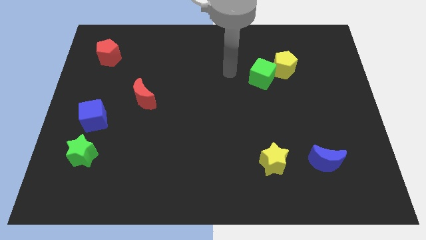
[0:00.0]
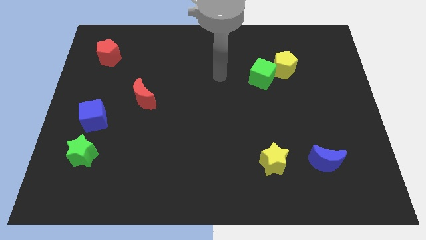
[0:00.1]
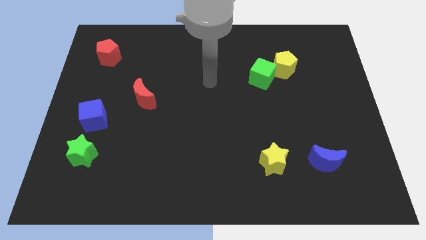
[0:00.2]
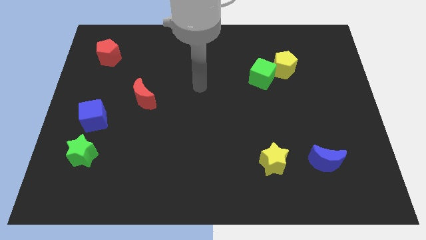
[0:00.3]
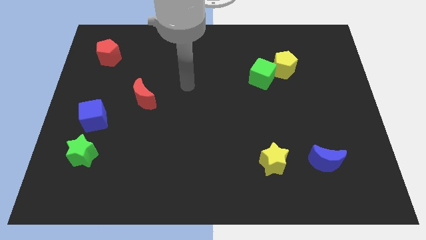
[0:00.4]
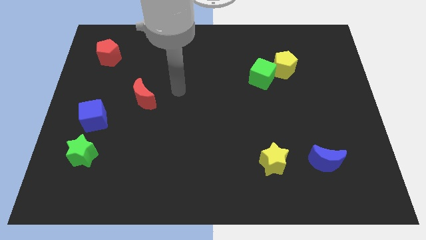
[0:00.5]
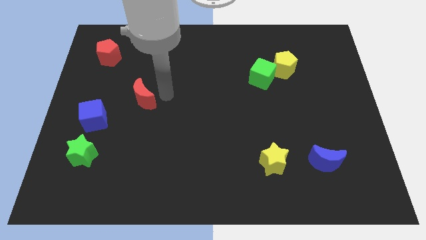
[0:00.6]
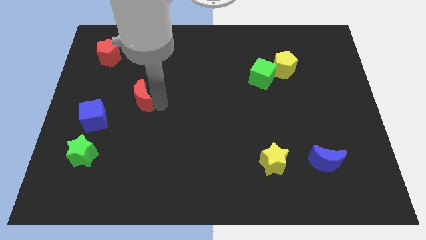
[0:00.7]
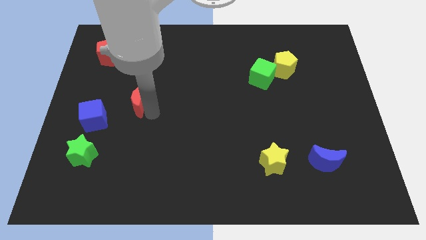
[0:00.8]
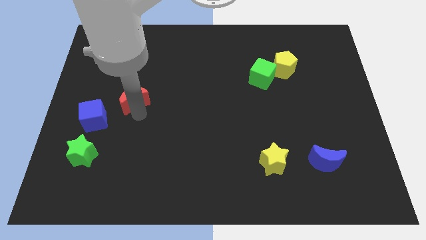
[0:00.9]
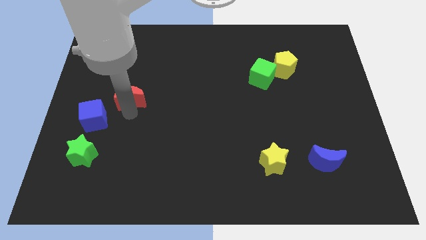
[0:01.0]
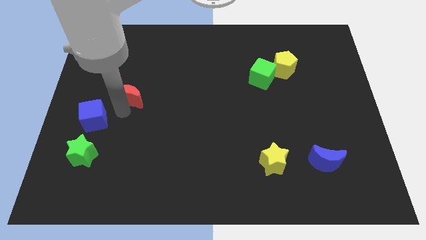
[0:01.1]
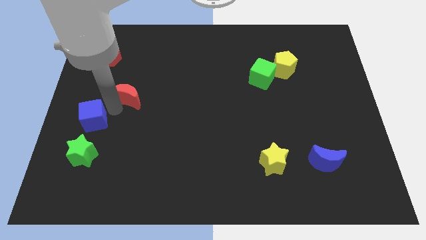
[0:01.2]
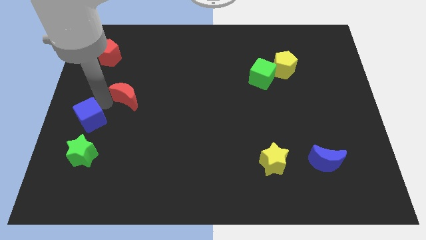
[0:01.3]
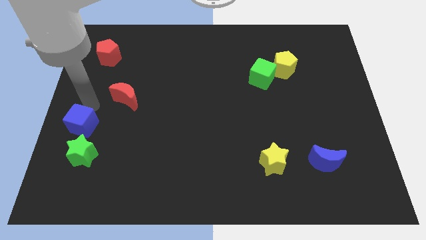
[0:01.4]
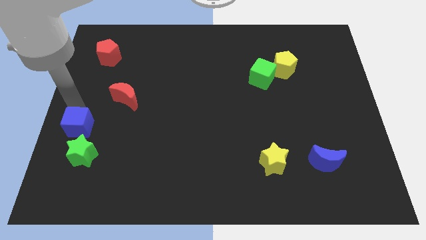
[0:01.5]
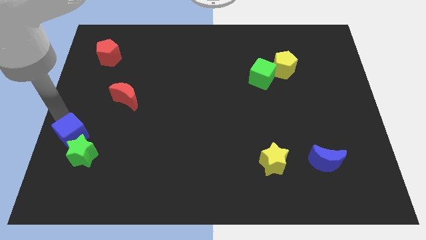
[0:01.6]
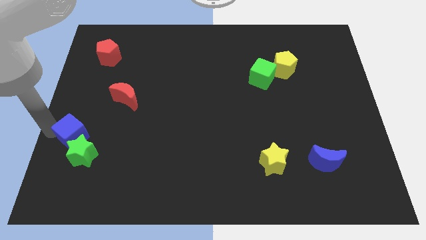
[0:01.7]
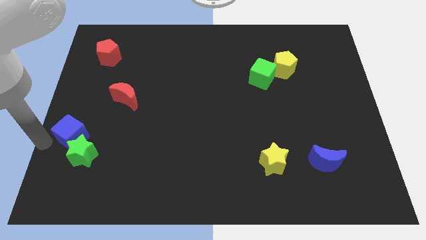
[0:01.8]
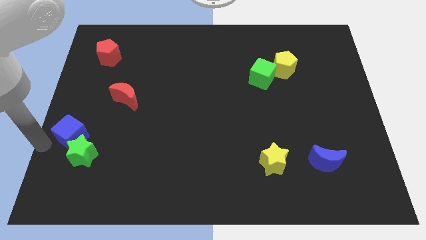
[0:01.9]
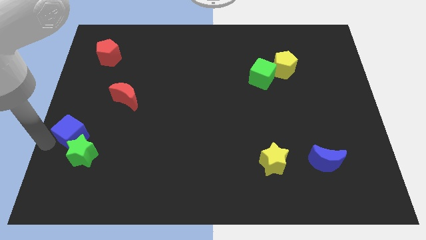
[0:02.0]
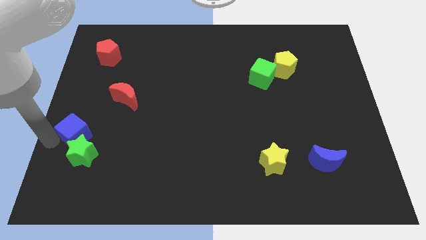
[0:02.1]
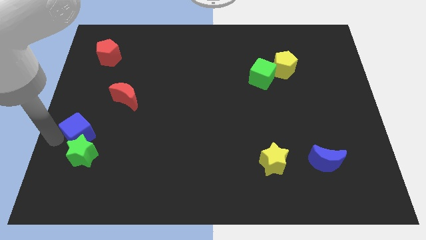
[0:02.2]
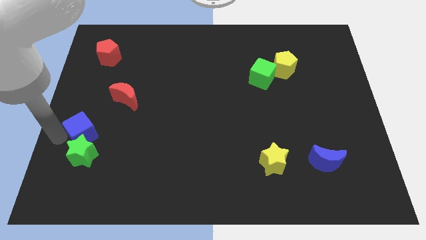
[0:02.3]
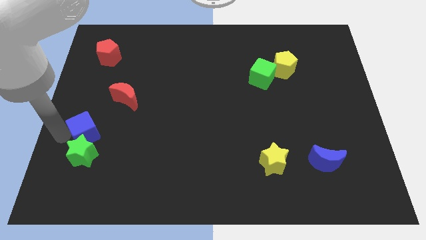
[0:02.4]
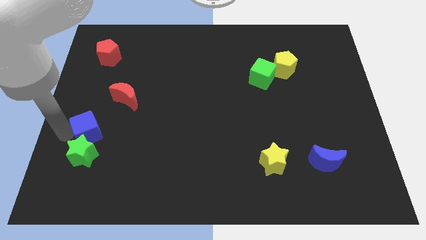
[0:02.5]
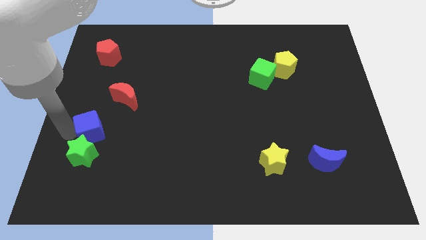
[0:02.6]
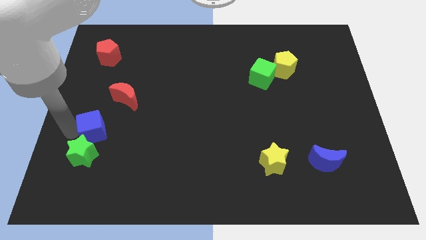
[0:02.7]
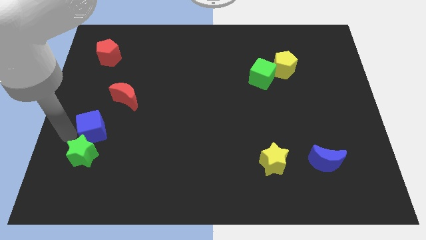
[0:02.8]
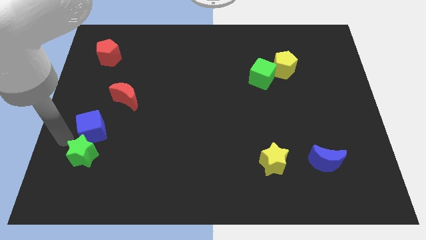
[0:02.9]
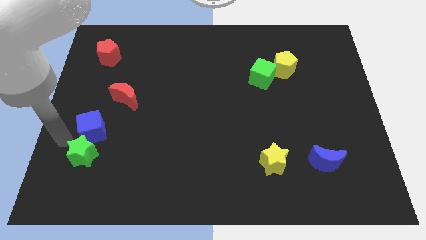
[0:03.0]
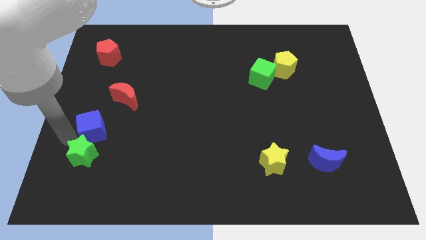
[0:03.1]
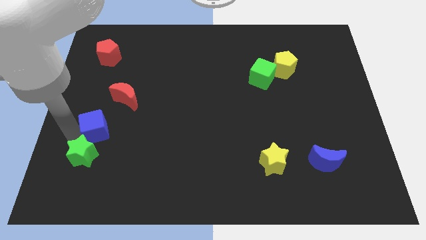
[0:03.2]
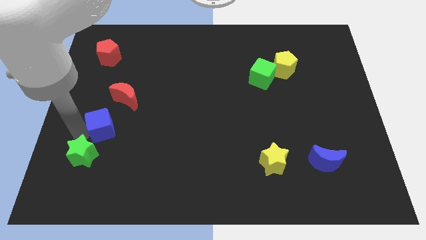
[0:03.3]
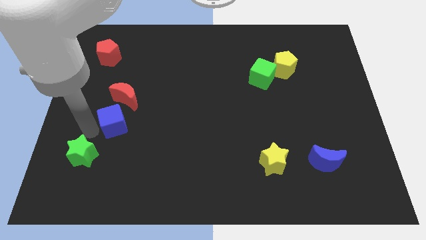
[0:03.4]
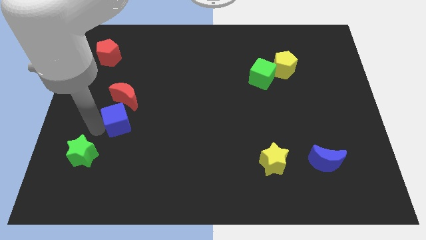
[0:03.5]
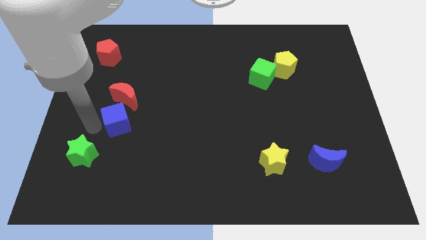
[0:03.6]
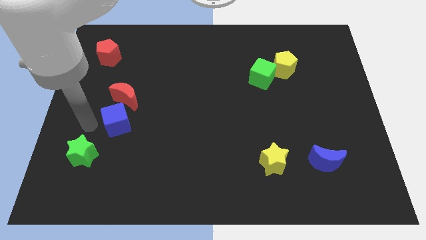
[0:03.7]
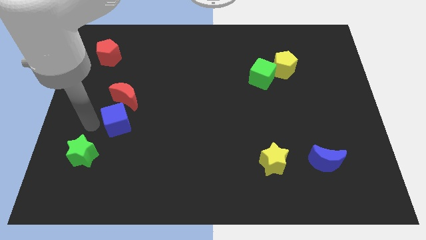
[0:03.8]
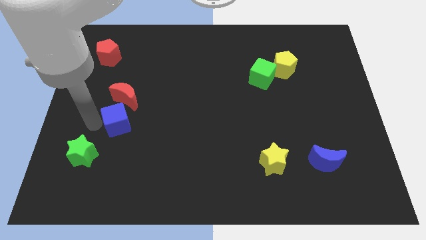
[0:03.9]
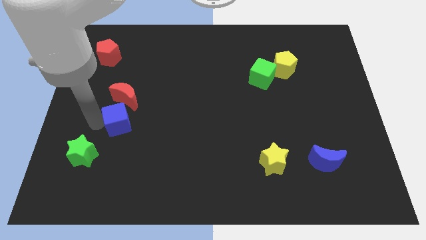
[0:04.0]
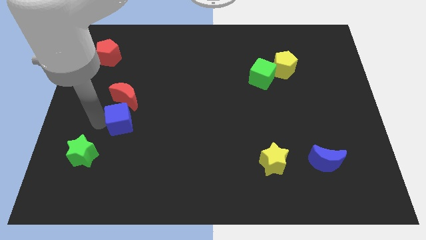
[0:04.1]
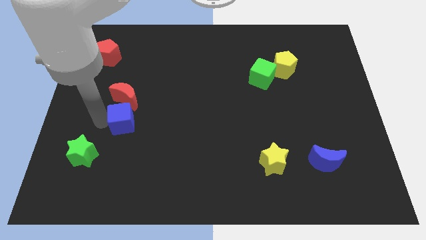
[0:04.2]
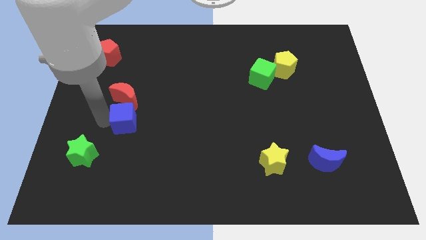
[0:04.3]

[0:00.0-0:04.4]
slide the blue cube a bit to the right

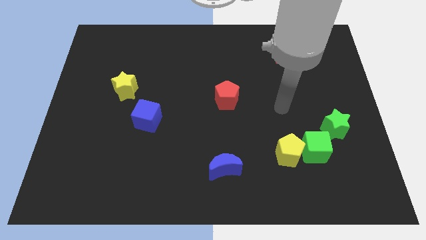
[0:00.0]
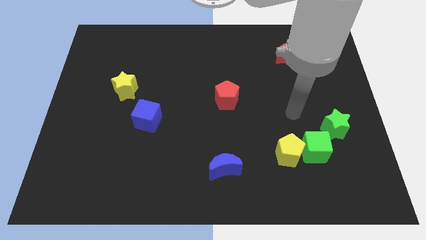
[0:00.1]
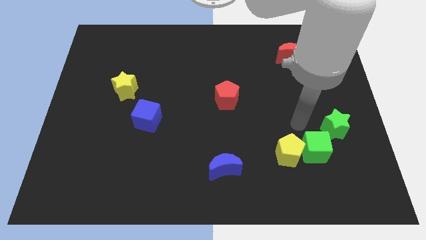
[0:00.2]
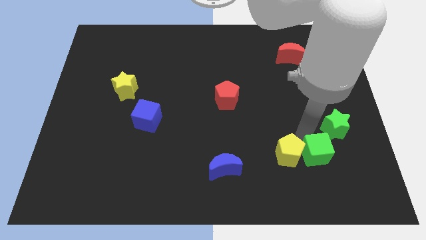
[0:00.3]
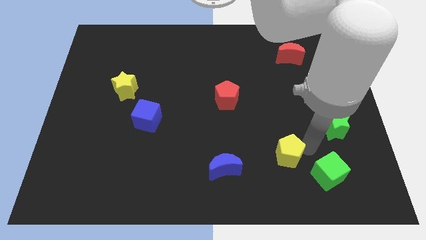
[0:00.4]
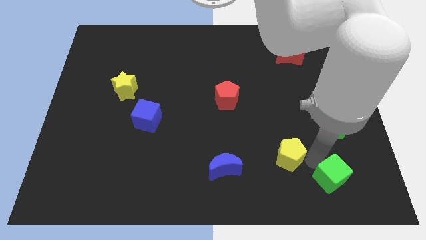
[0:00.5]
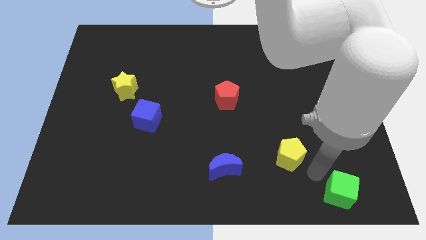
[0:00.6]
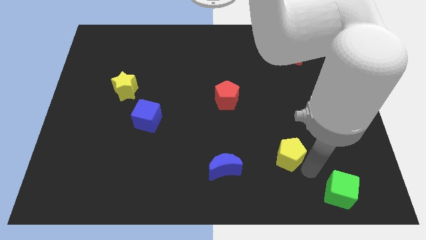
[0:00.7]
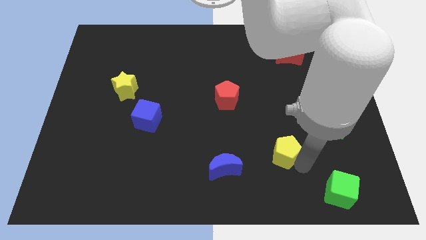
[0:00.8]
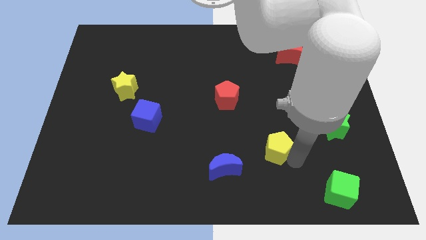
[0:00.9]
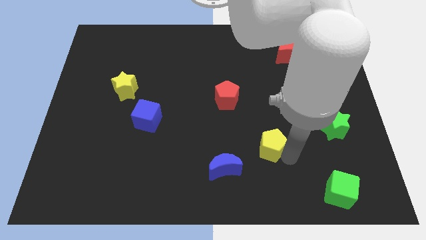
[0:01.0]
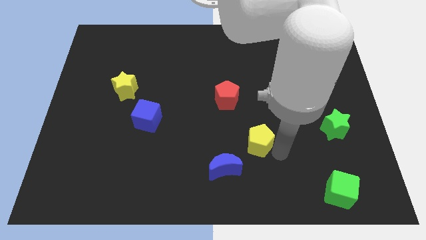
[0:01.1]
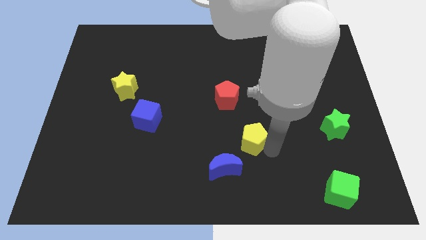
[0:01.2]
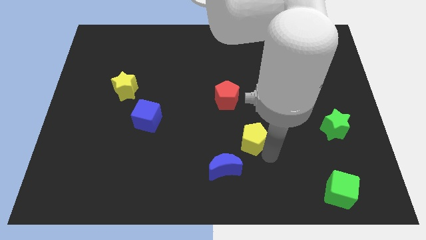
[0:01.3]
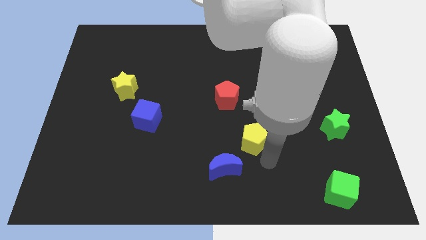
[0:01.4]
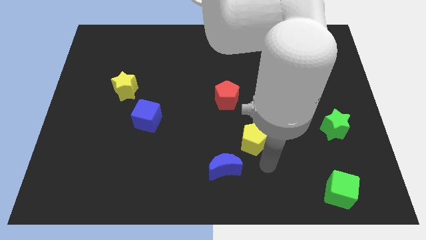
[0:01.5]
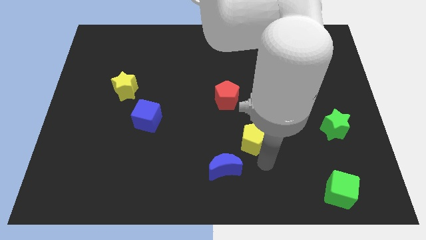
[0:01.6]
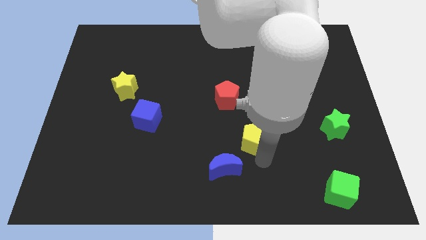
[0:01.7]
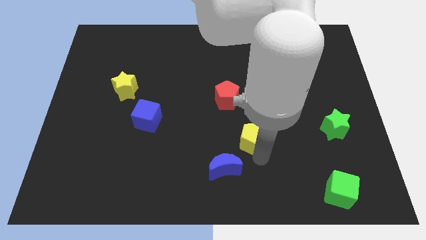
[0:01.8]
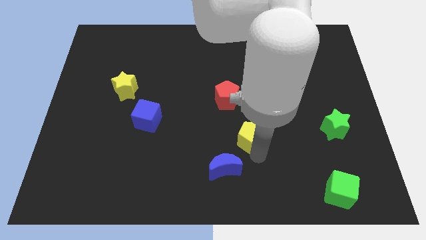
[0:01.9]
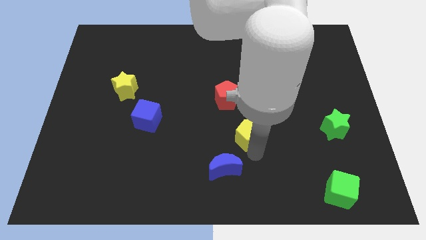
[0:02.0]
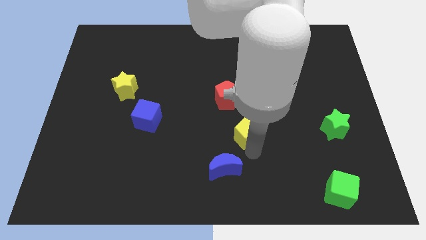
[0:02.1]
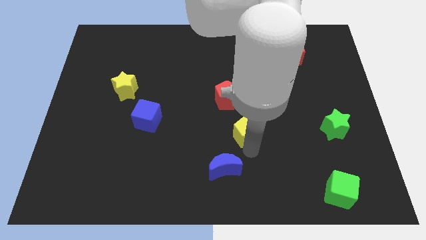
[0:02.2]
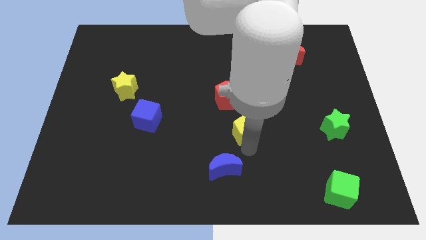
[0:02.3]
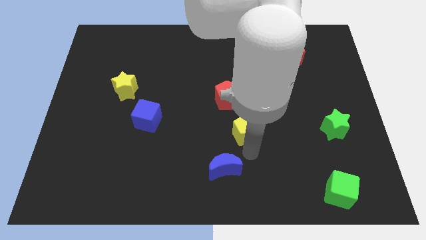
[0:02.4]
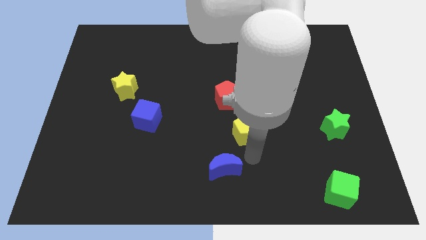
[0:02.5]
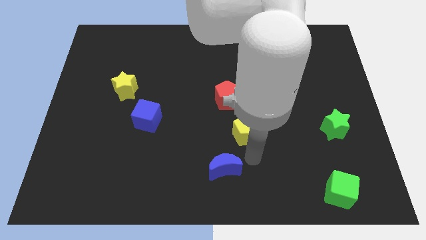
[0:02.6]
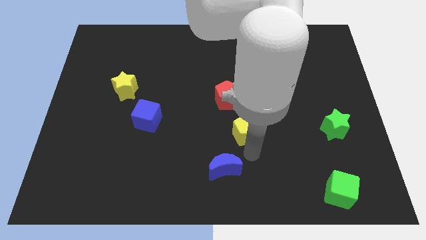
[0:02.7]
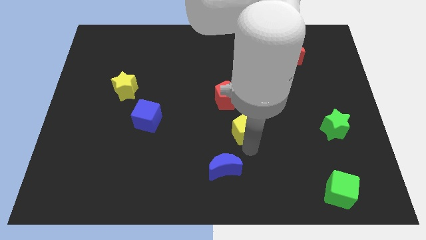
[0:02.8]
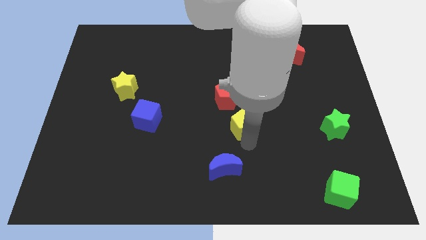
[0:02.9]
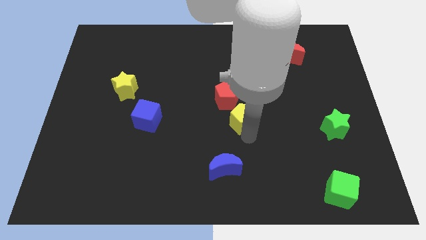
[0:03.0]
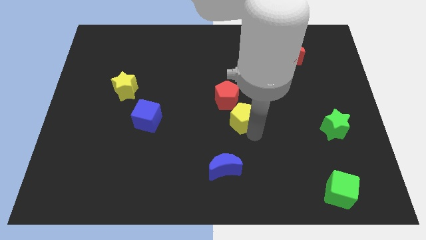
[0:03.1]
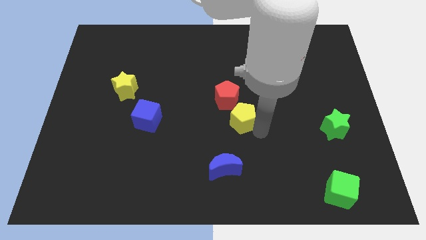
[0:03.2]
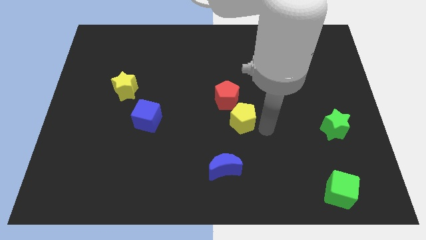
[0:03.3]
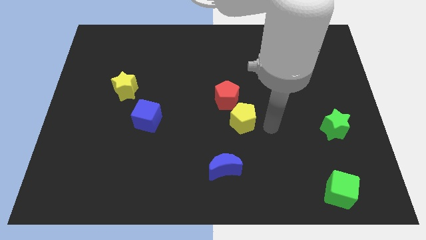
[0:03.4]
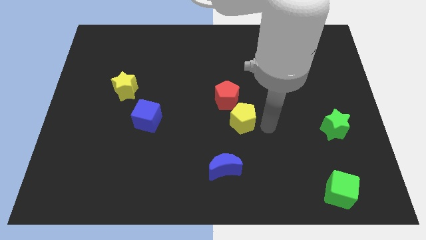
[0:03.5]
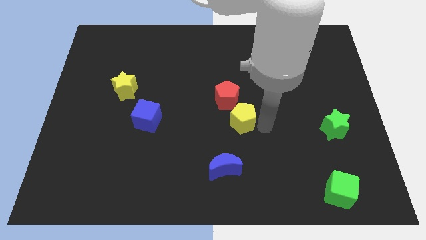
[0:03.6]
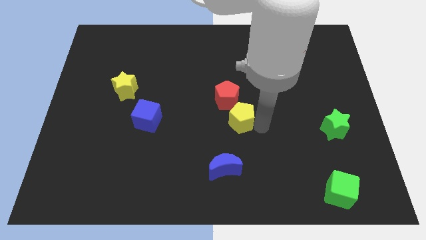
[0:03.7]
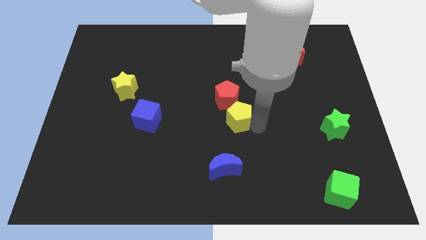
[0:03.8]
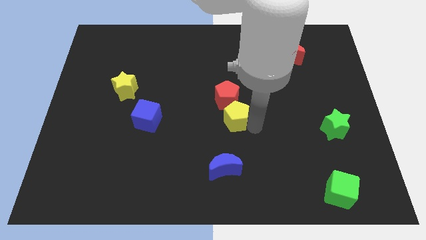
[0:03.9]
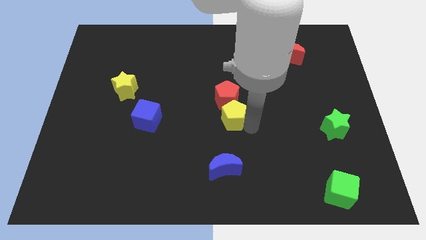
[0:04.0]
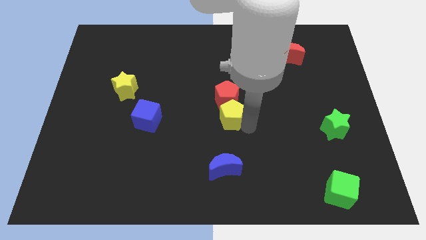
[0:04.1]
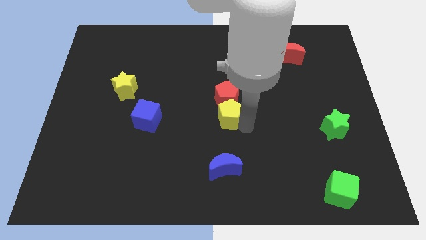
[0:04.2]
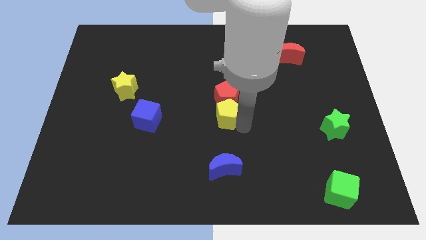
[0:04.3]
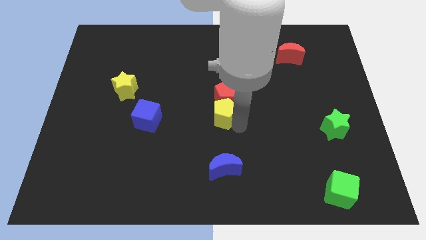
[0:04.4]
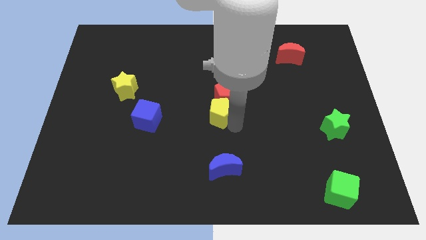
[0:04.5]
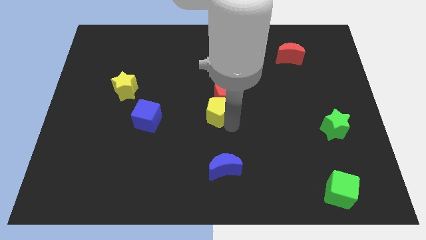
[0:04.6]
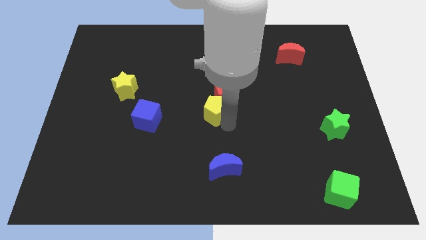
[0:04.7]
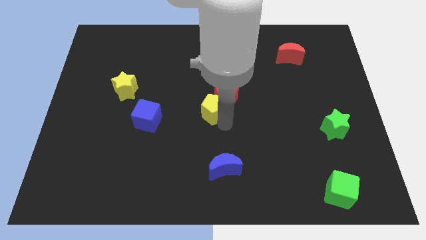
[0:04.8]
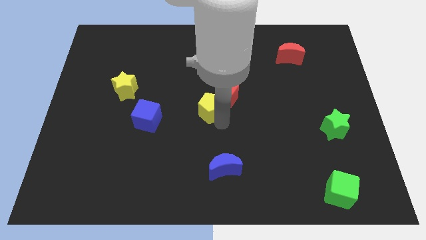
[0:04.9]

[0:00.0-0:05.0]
slide the yellow pentagon upwards and to the left
